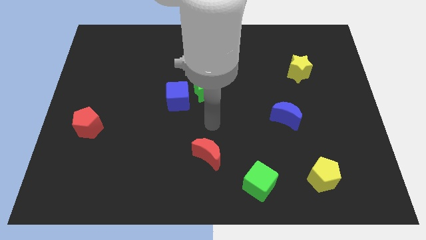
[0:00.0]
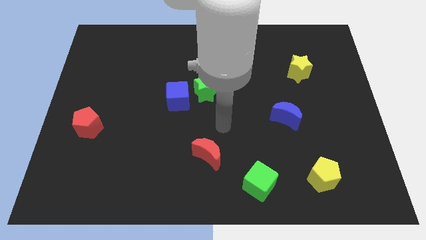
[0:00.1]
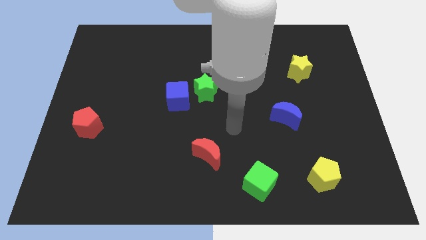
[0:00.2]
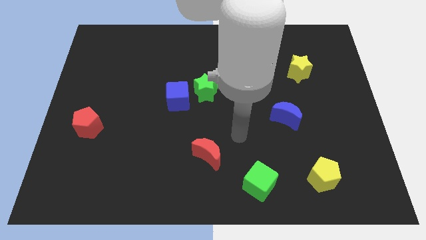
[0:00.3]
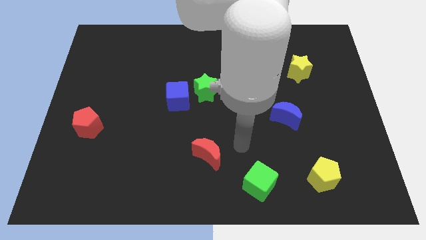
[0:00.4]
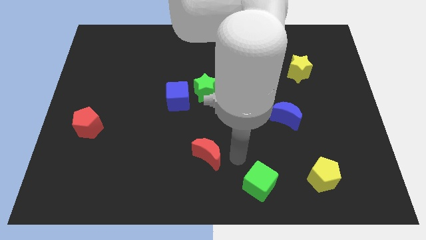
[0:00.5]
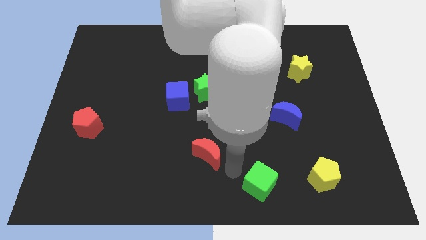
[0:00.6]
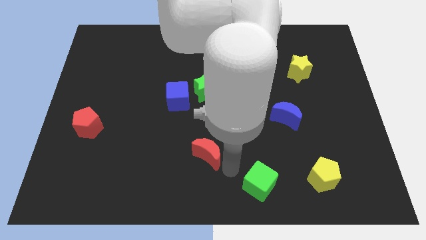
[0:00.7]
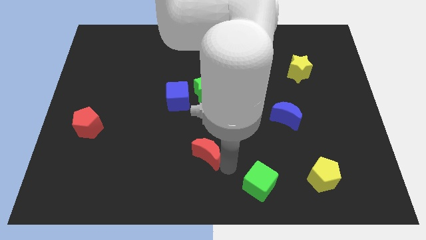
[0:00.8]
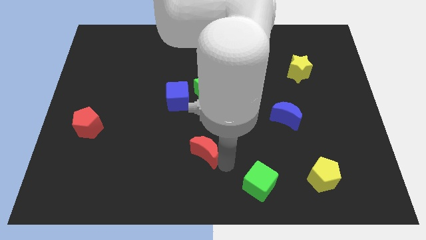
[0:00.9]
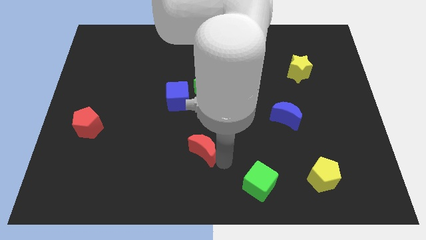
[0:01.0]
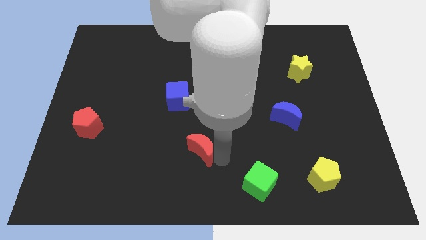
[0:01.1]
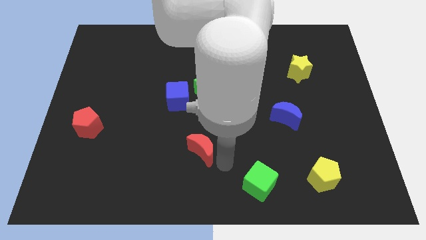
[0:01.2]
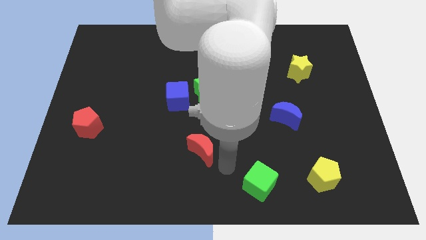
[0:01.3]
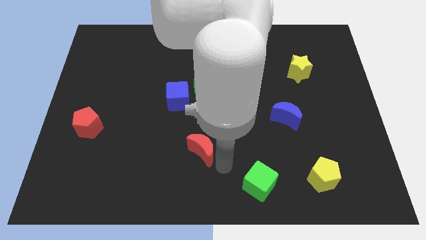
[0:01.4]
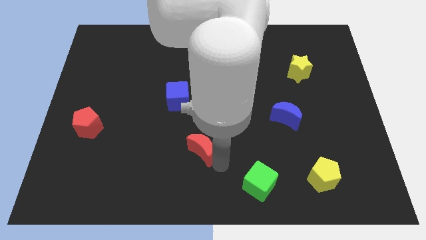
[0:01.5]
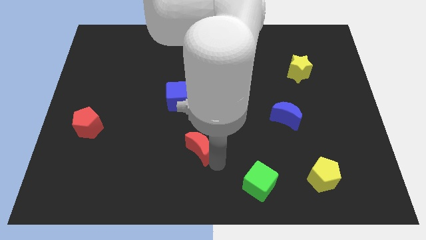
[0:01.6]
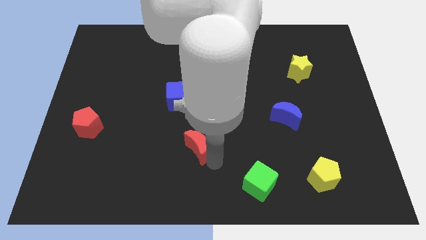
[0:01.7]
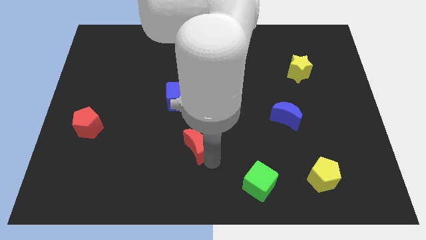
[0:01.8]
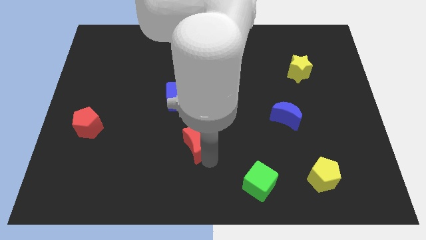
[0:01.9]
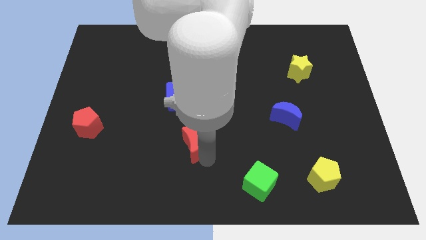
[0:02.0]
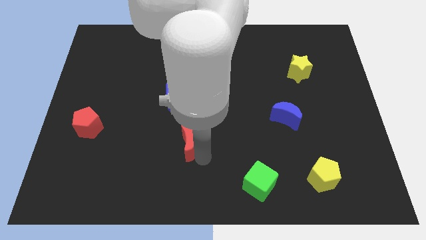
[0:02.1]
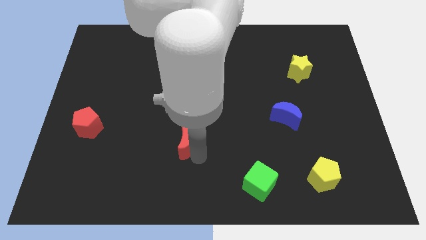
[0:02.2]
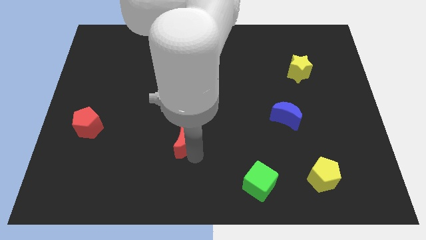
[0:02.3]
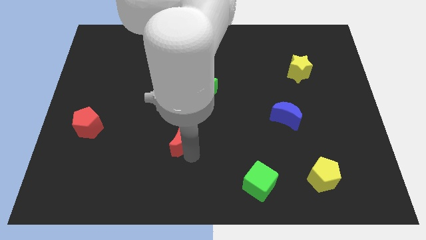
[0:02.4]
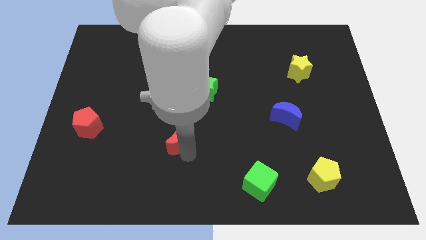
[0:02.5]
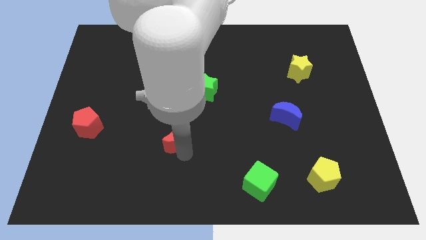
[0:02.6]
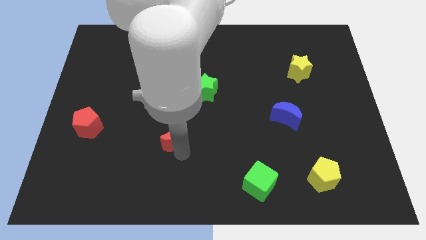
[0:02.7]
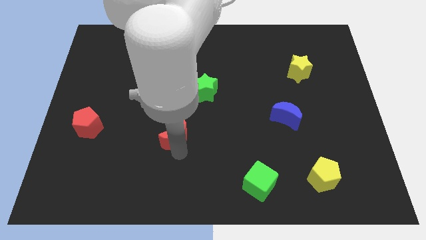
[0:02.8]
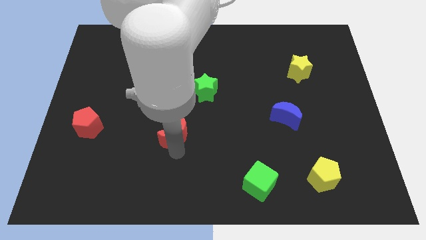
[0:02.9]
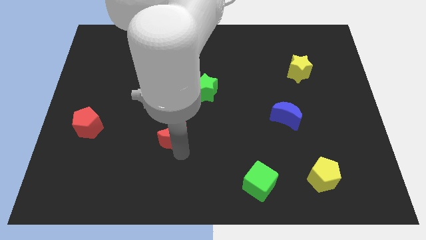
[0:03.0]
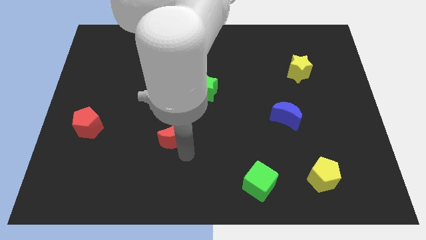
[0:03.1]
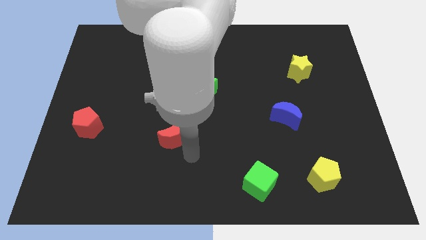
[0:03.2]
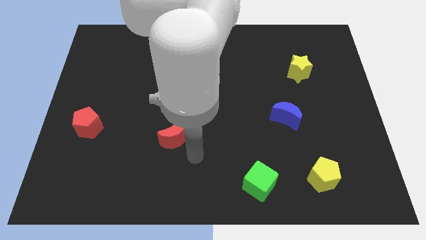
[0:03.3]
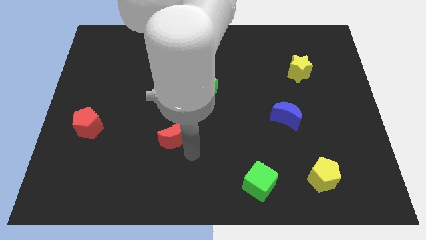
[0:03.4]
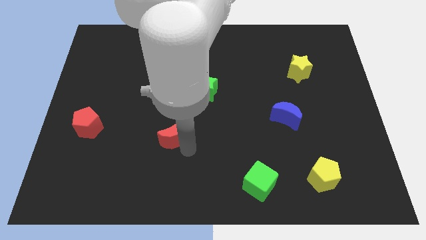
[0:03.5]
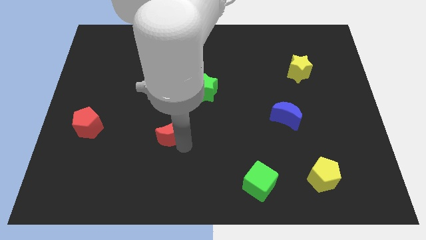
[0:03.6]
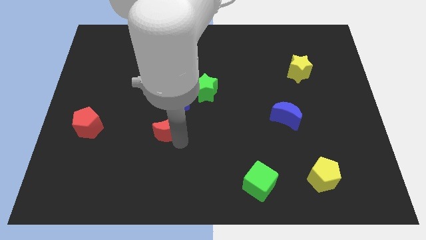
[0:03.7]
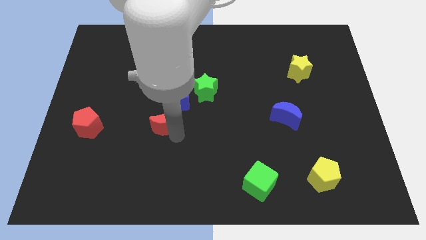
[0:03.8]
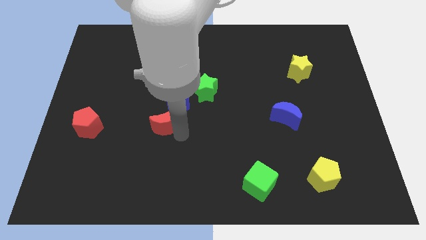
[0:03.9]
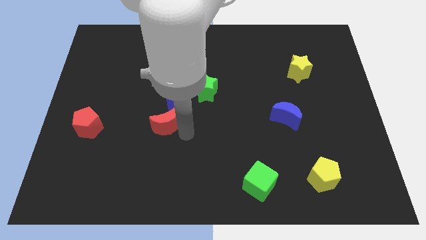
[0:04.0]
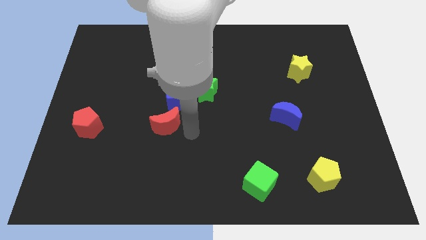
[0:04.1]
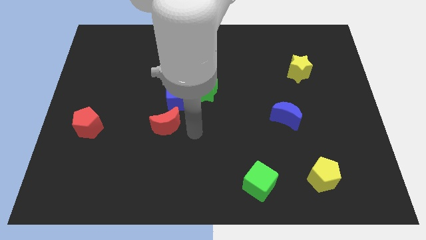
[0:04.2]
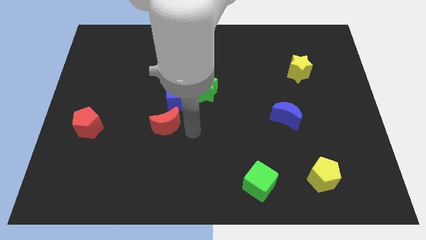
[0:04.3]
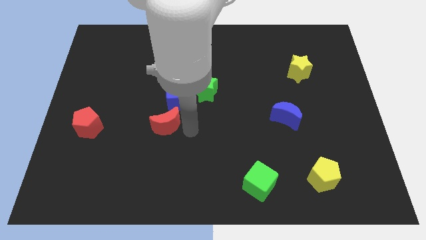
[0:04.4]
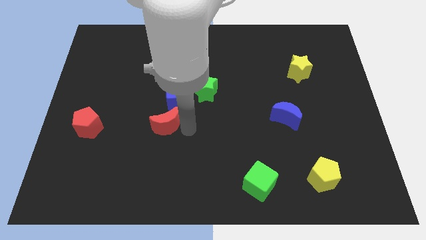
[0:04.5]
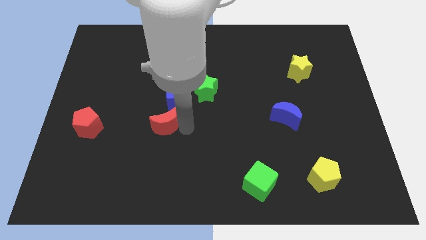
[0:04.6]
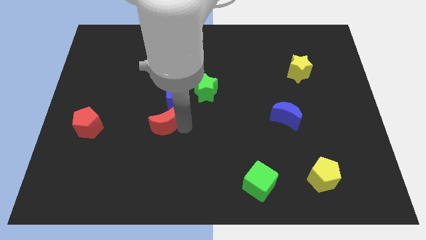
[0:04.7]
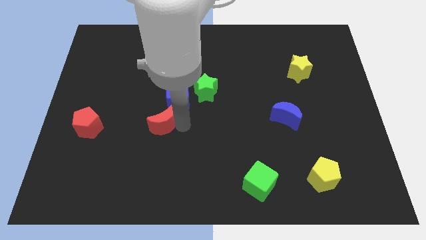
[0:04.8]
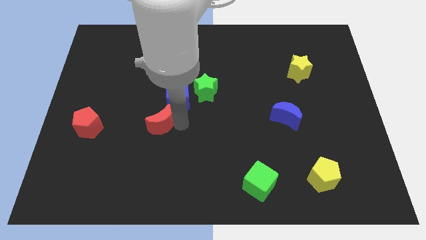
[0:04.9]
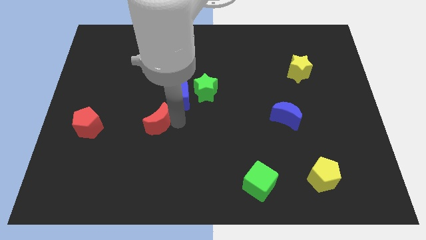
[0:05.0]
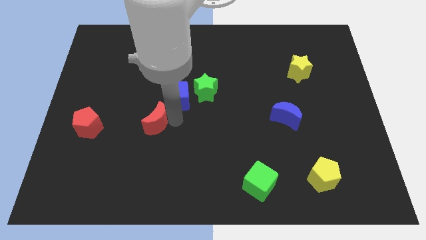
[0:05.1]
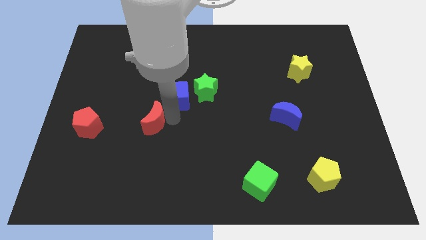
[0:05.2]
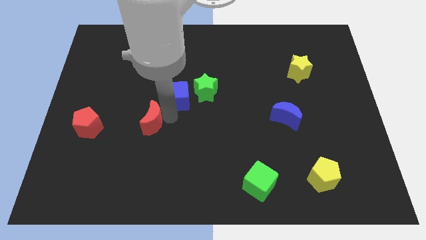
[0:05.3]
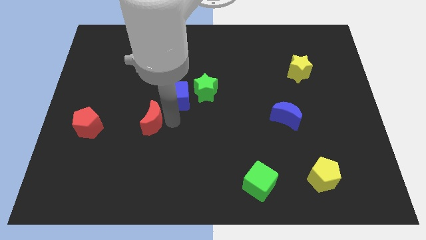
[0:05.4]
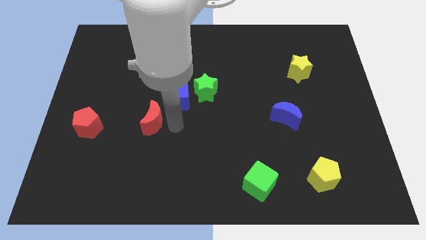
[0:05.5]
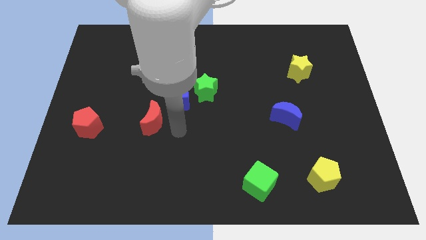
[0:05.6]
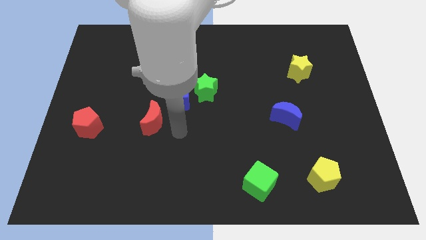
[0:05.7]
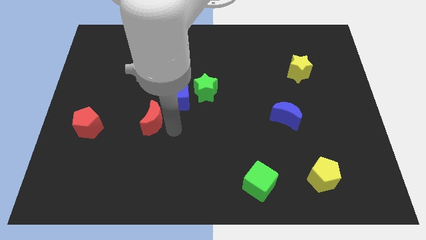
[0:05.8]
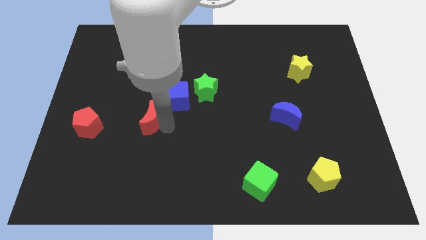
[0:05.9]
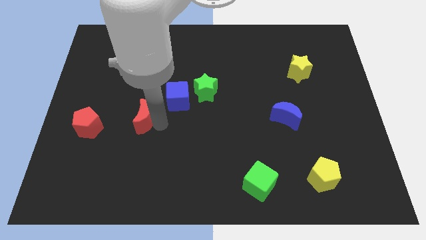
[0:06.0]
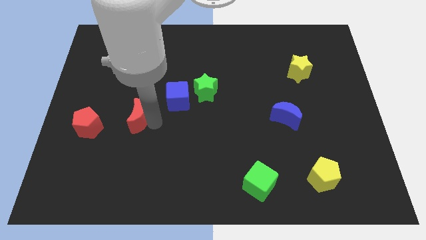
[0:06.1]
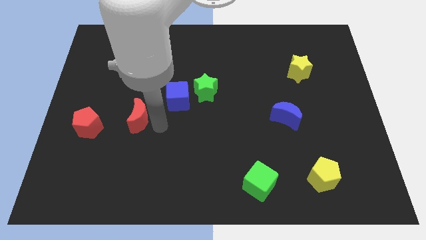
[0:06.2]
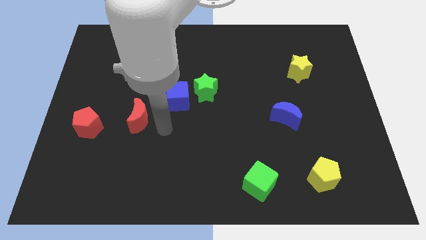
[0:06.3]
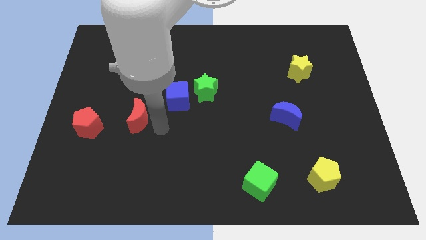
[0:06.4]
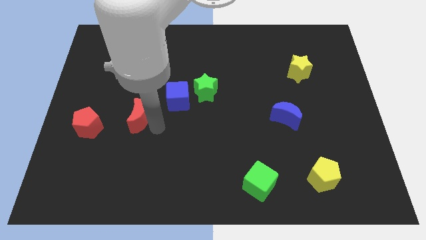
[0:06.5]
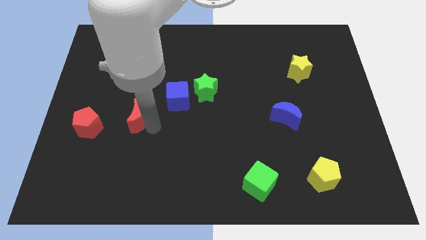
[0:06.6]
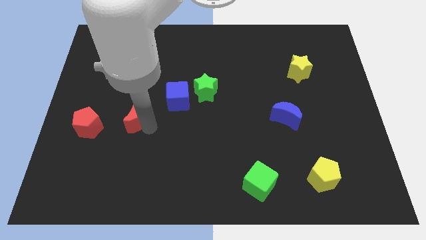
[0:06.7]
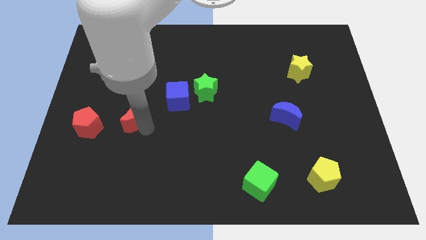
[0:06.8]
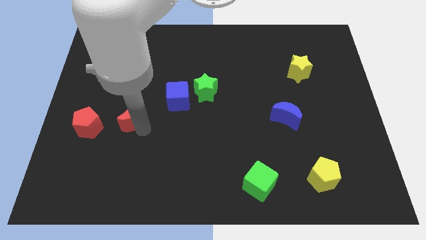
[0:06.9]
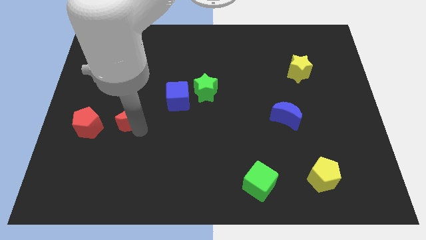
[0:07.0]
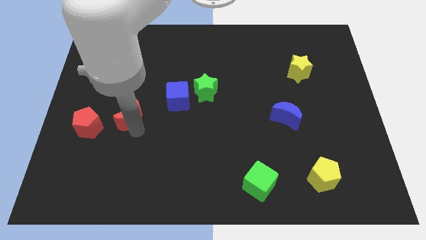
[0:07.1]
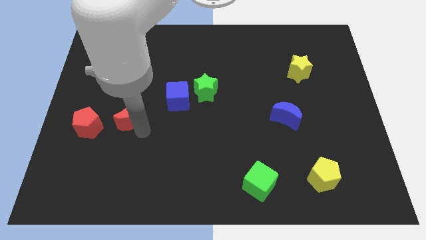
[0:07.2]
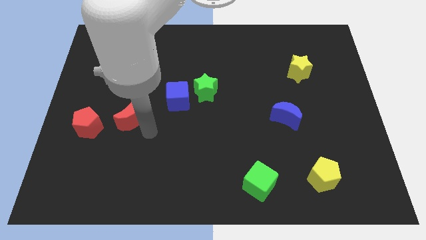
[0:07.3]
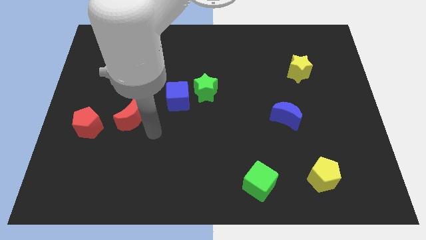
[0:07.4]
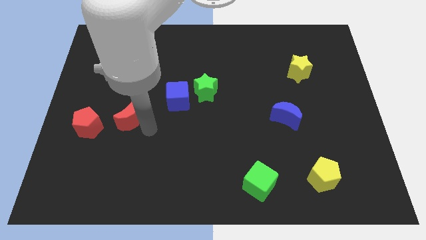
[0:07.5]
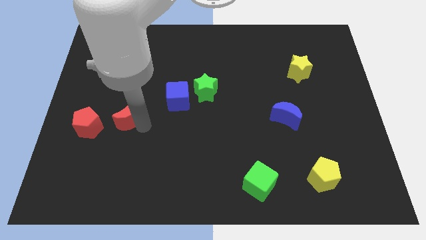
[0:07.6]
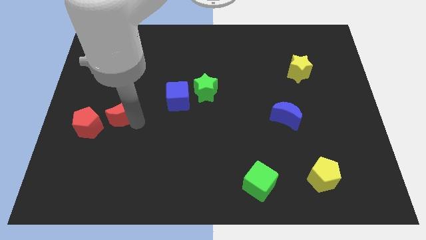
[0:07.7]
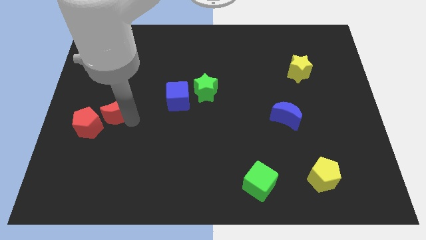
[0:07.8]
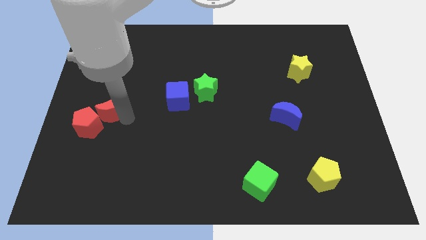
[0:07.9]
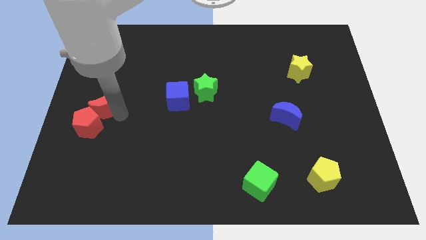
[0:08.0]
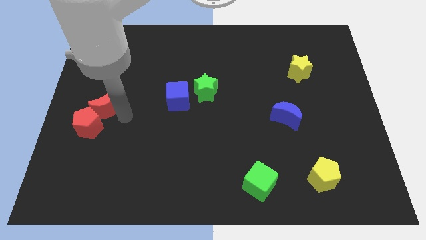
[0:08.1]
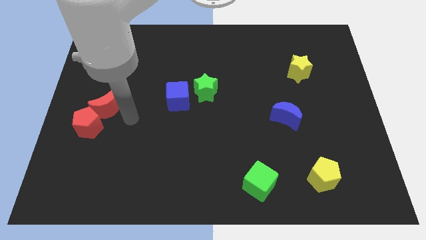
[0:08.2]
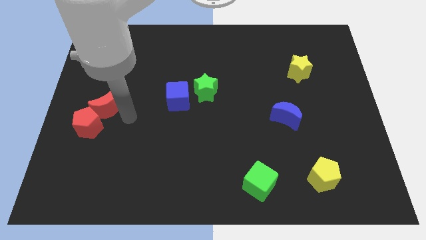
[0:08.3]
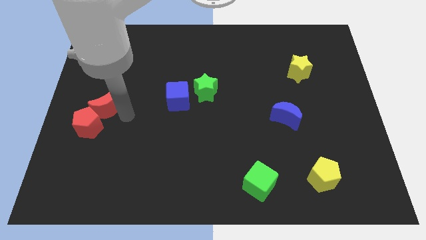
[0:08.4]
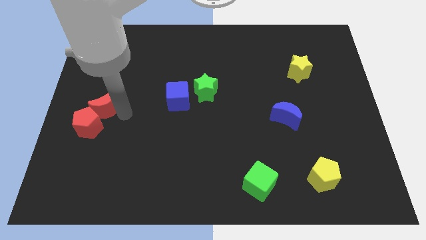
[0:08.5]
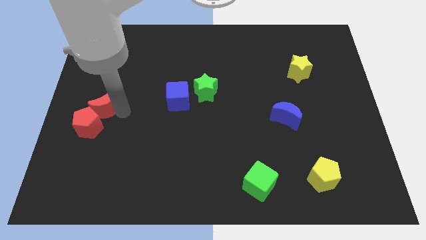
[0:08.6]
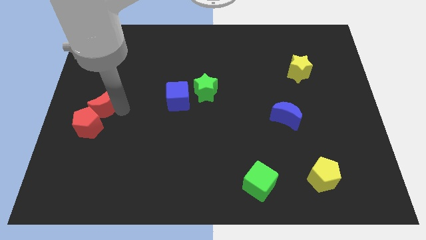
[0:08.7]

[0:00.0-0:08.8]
push the red moon to the left side
